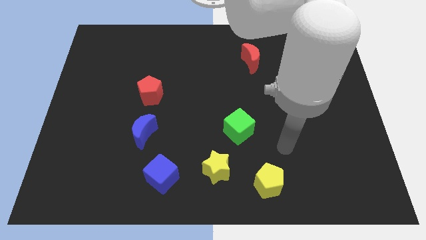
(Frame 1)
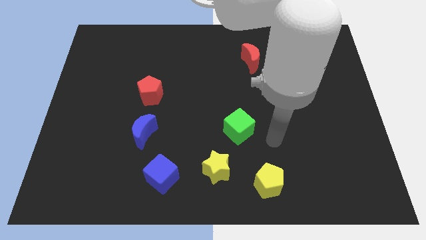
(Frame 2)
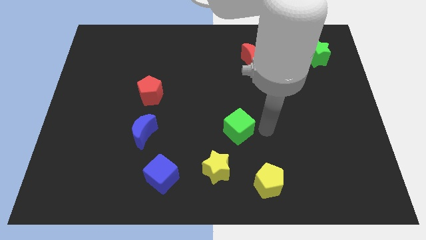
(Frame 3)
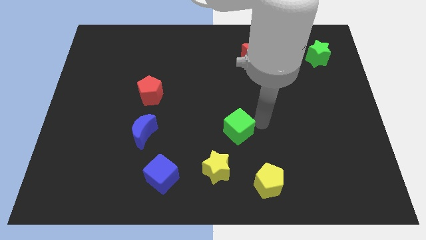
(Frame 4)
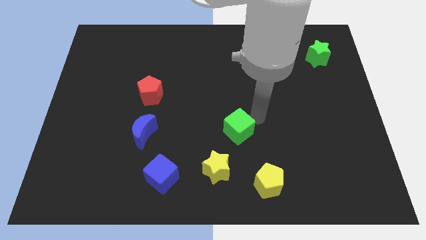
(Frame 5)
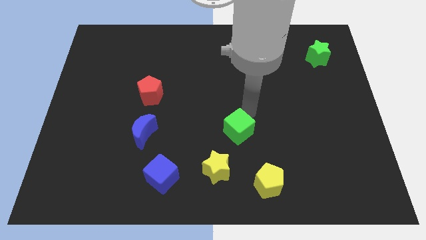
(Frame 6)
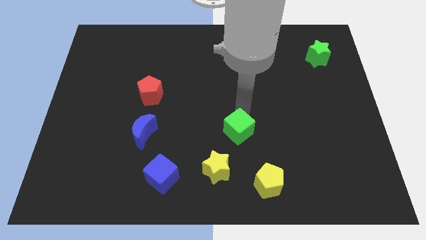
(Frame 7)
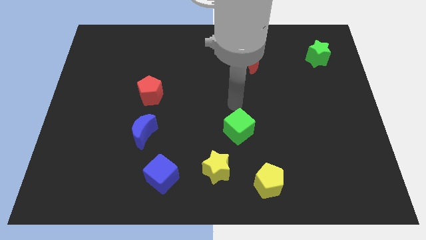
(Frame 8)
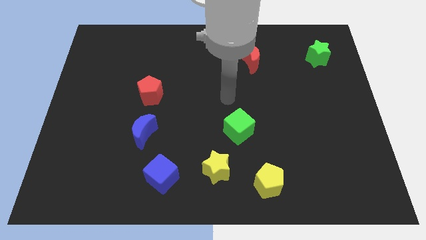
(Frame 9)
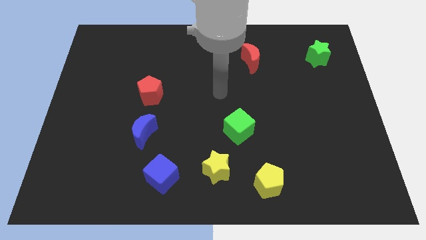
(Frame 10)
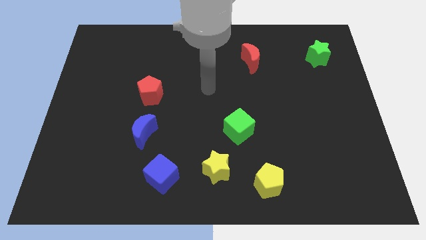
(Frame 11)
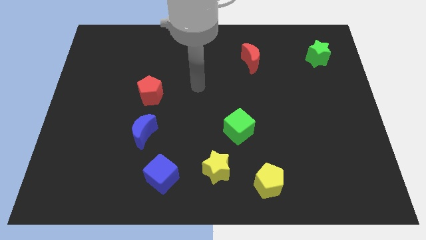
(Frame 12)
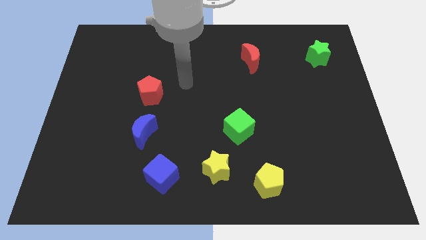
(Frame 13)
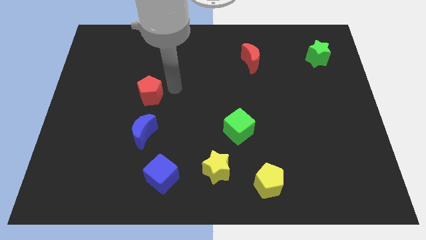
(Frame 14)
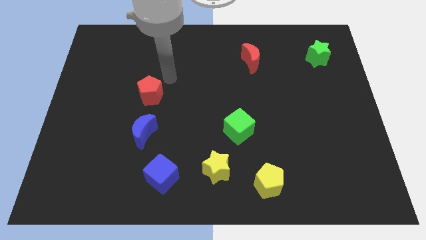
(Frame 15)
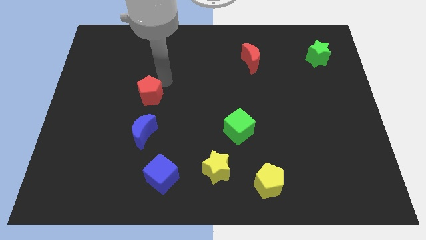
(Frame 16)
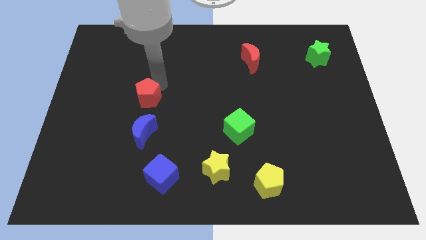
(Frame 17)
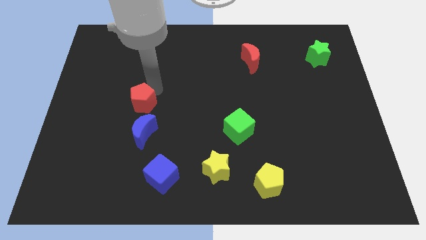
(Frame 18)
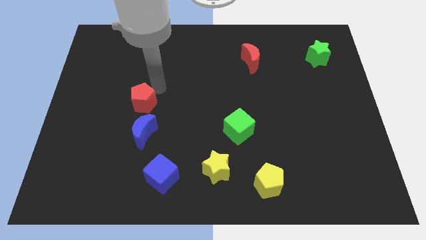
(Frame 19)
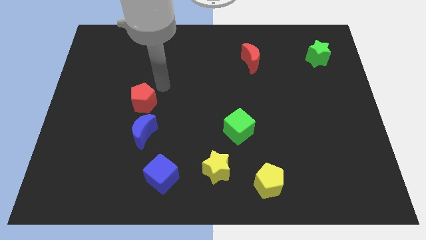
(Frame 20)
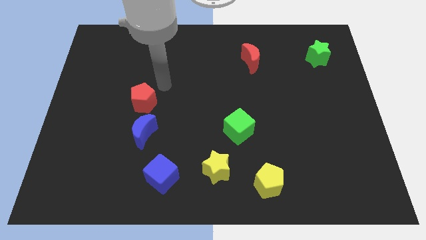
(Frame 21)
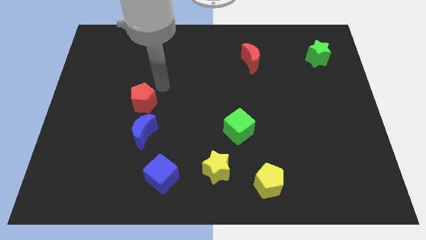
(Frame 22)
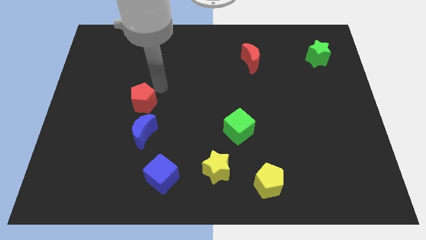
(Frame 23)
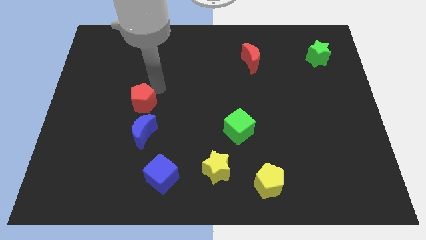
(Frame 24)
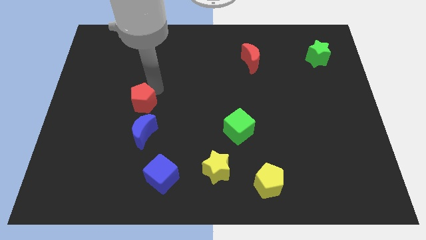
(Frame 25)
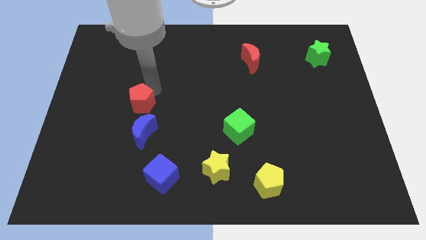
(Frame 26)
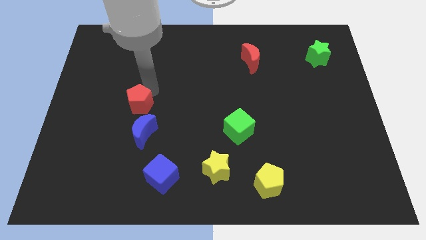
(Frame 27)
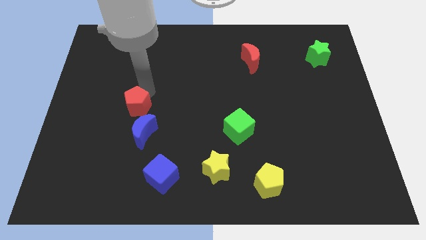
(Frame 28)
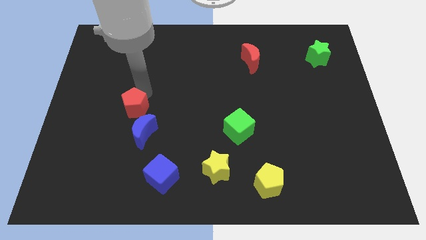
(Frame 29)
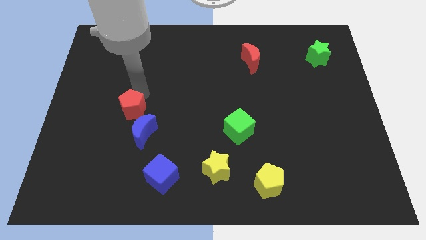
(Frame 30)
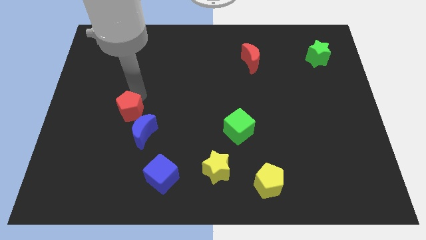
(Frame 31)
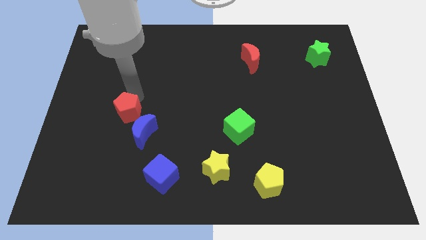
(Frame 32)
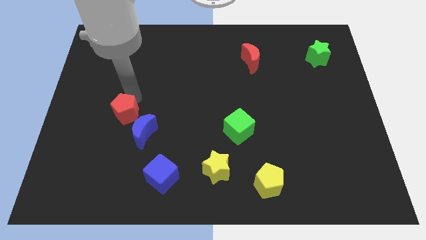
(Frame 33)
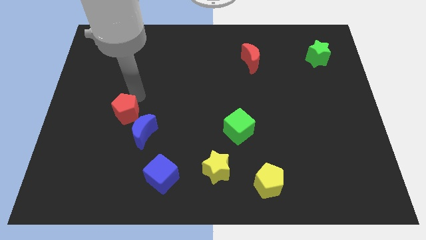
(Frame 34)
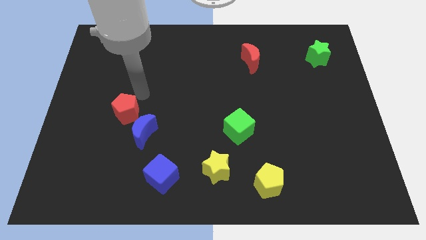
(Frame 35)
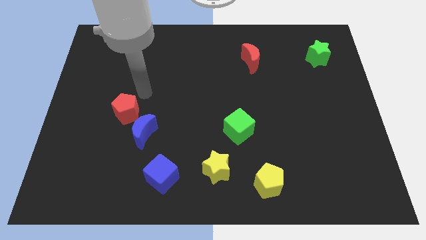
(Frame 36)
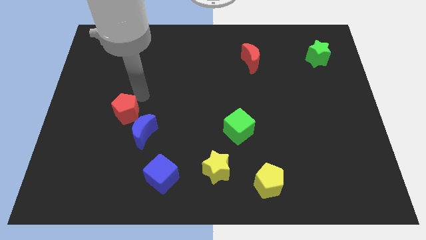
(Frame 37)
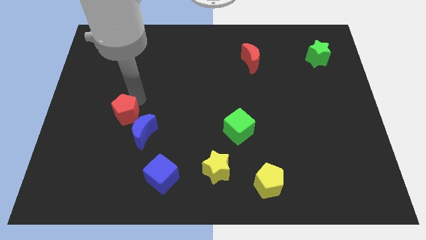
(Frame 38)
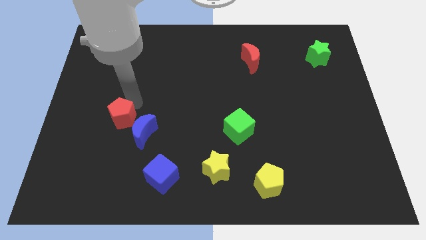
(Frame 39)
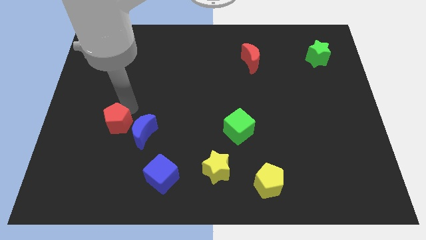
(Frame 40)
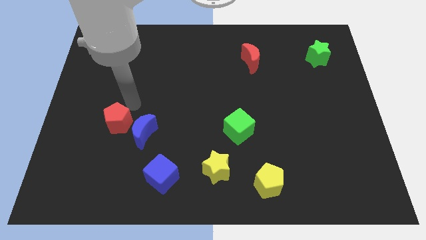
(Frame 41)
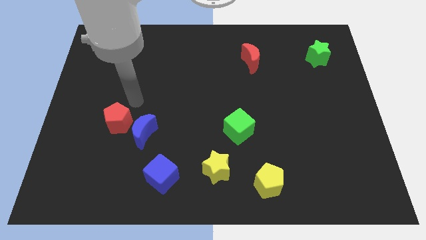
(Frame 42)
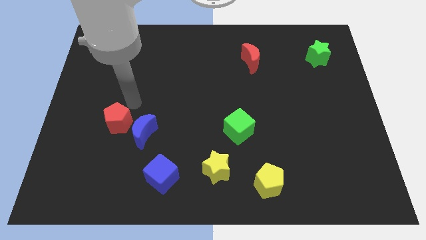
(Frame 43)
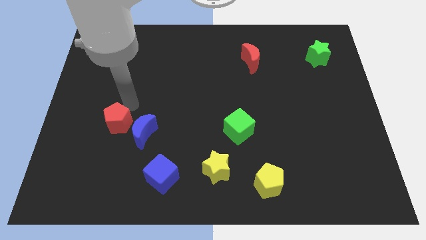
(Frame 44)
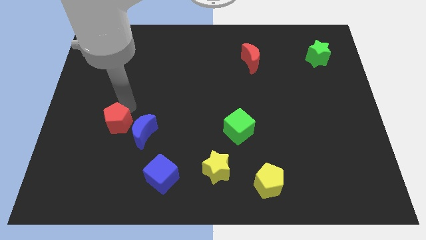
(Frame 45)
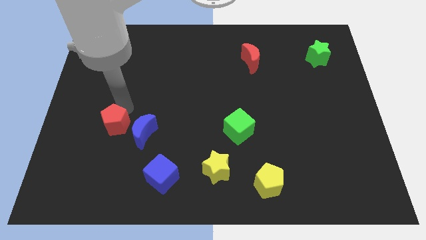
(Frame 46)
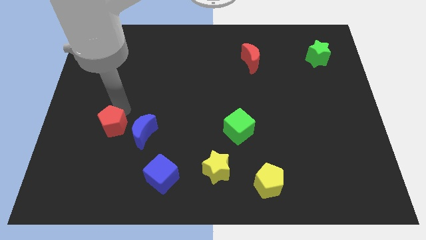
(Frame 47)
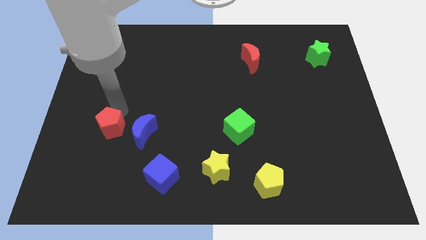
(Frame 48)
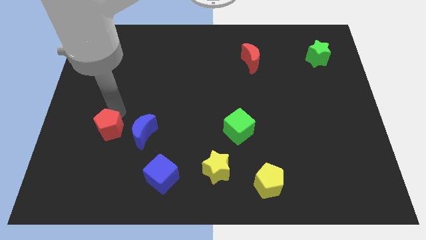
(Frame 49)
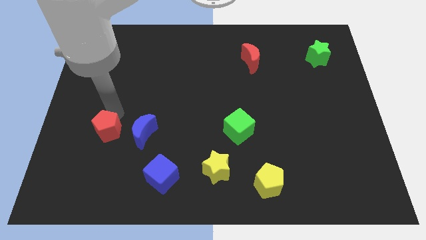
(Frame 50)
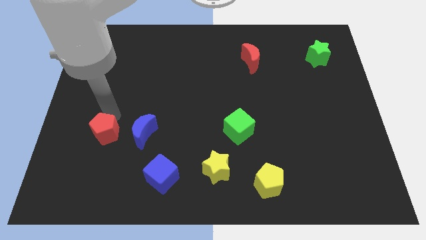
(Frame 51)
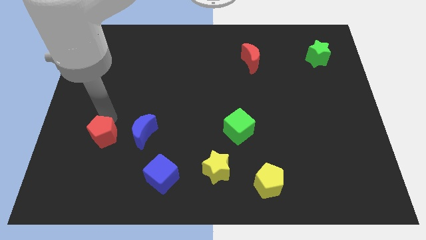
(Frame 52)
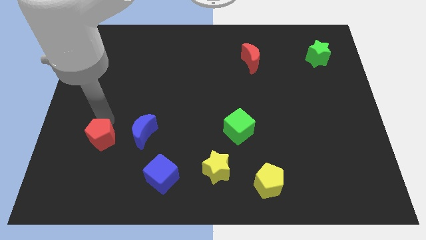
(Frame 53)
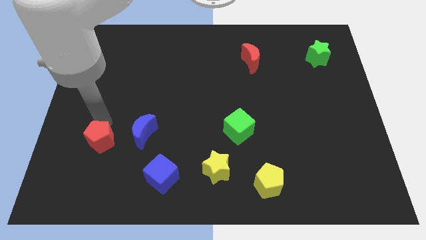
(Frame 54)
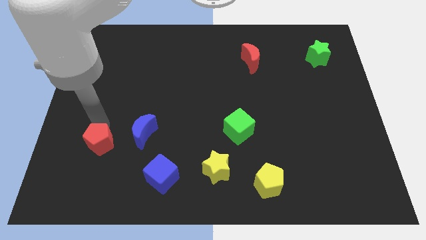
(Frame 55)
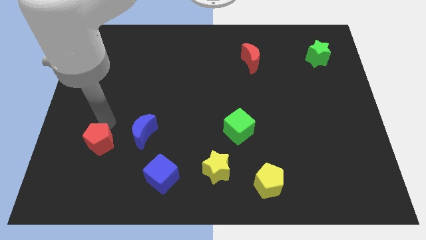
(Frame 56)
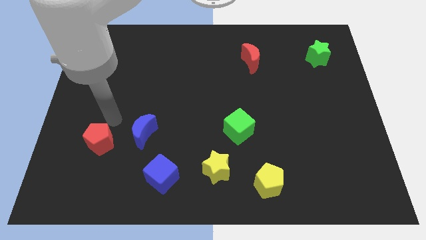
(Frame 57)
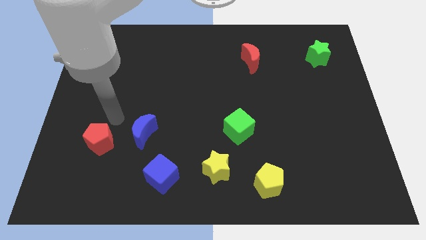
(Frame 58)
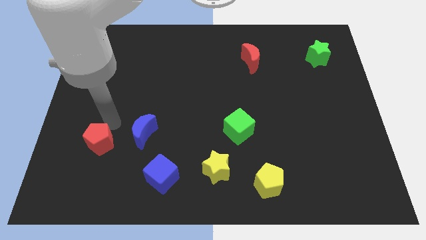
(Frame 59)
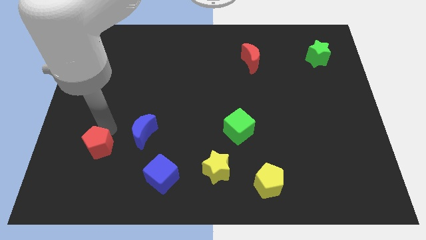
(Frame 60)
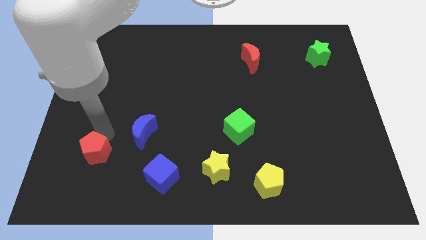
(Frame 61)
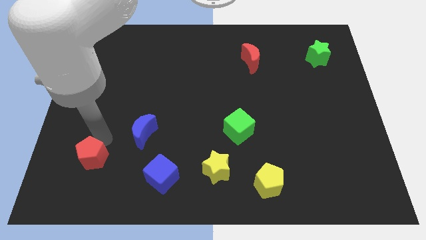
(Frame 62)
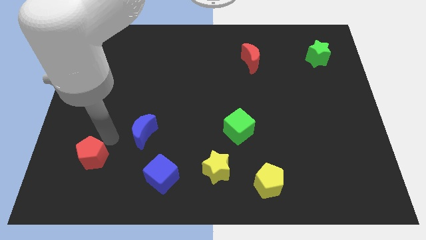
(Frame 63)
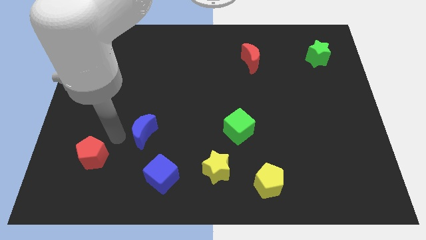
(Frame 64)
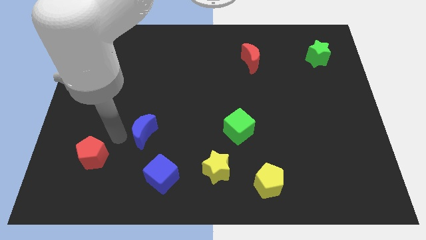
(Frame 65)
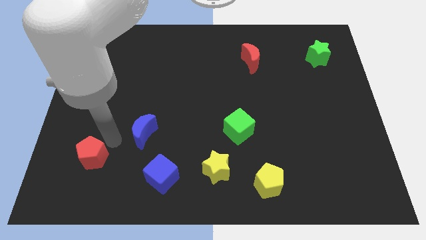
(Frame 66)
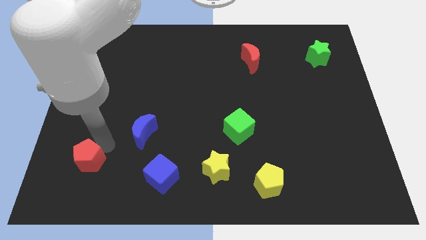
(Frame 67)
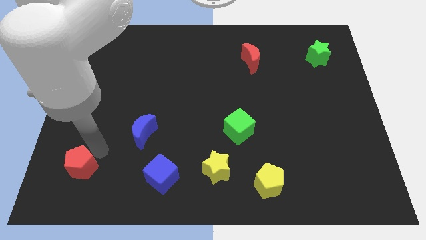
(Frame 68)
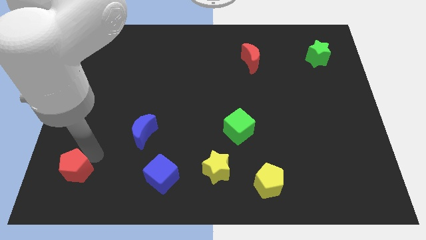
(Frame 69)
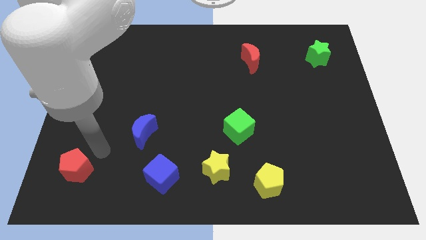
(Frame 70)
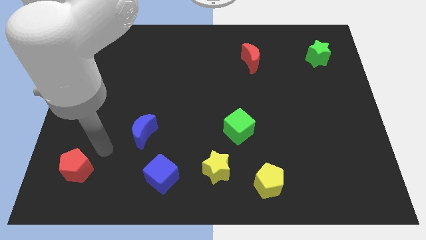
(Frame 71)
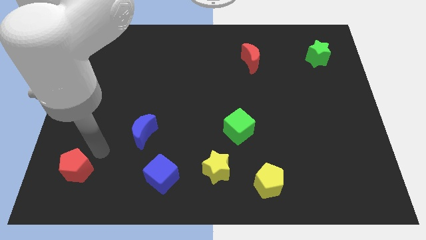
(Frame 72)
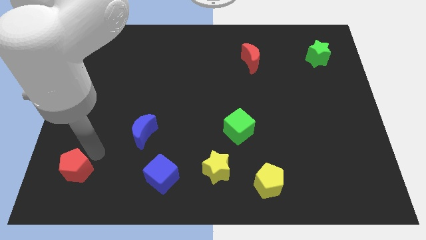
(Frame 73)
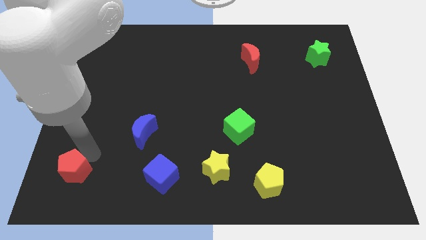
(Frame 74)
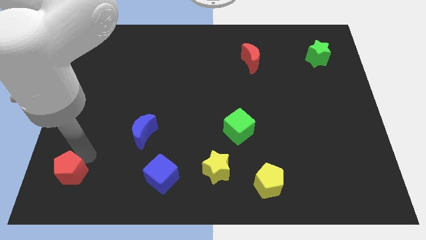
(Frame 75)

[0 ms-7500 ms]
slide the red pentagon to the lower left corner
